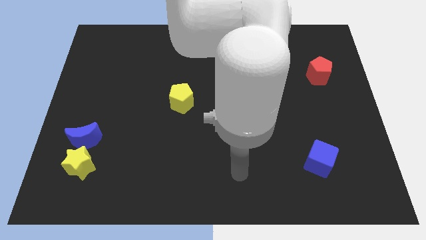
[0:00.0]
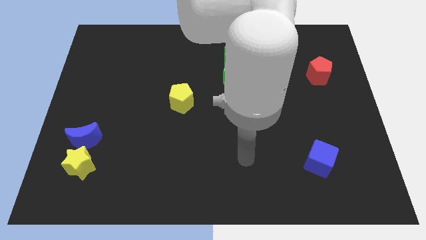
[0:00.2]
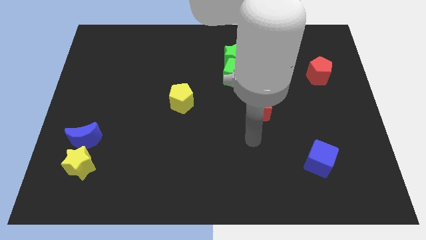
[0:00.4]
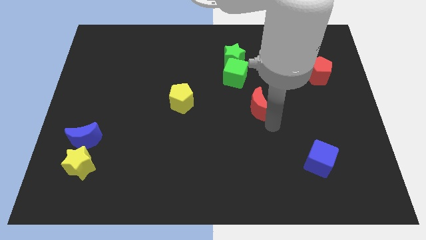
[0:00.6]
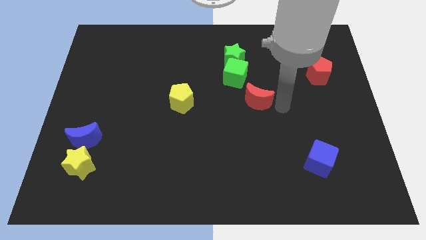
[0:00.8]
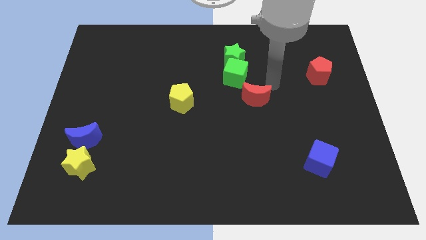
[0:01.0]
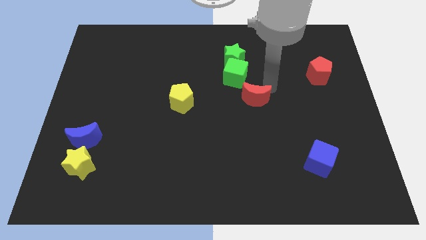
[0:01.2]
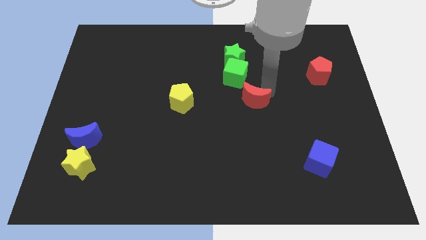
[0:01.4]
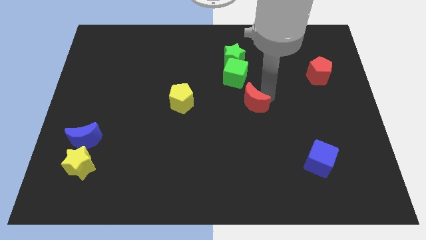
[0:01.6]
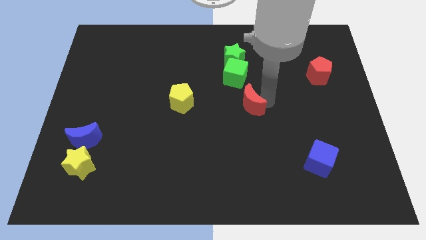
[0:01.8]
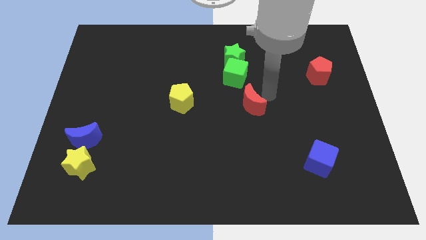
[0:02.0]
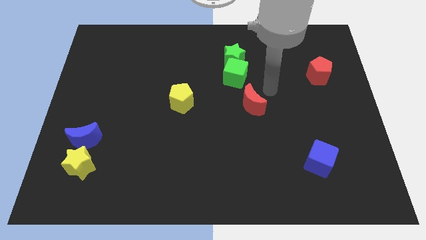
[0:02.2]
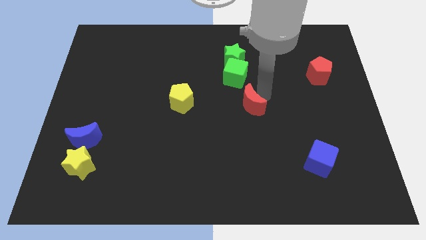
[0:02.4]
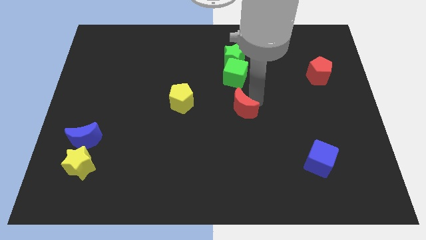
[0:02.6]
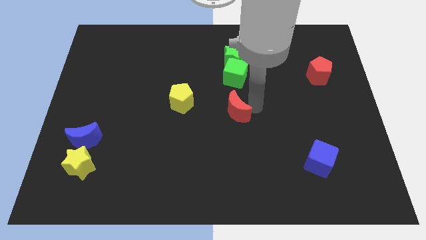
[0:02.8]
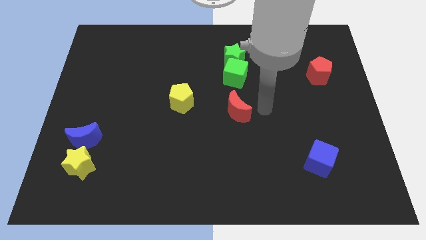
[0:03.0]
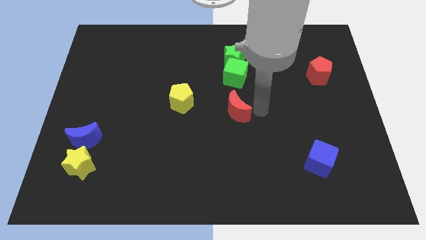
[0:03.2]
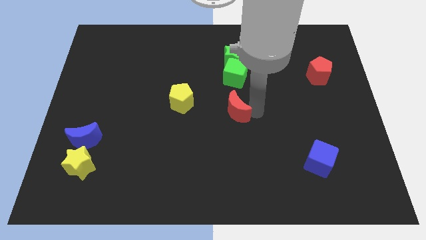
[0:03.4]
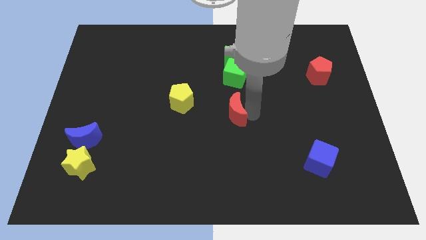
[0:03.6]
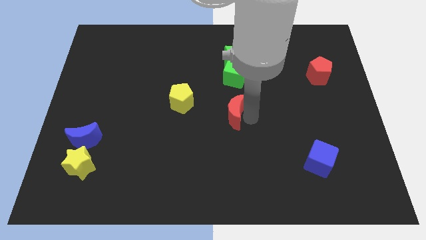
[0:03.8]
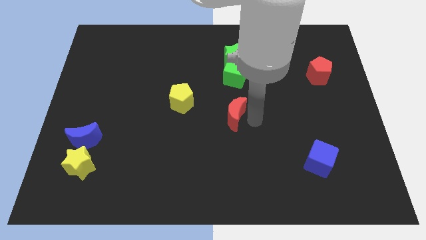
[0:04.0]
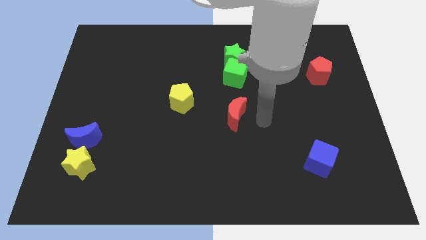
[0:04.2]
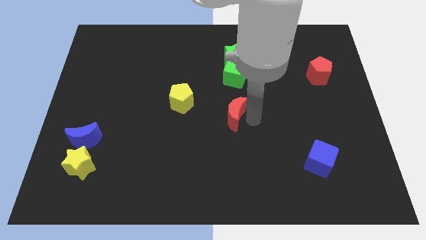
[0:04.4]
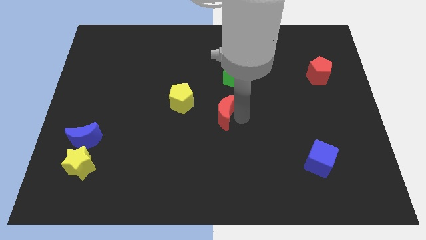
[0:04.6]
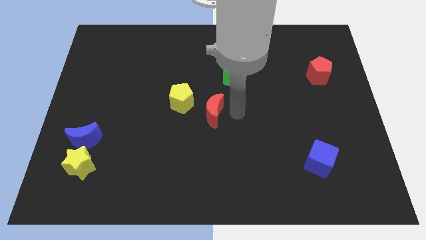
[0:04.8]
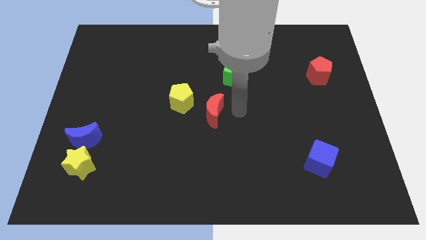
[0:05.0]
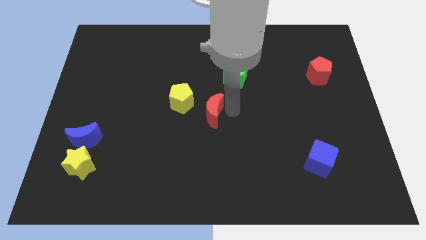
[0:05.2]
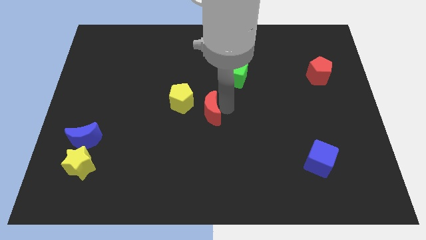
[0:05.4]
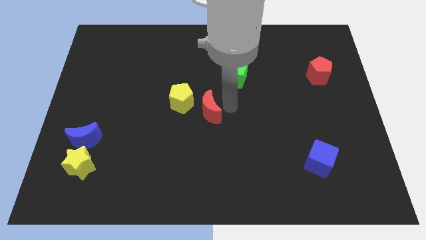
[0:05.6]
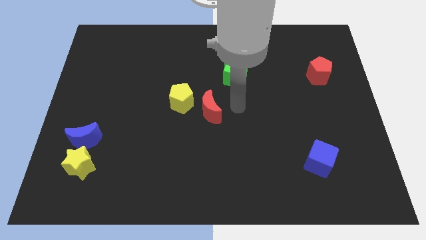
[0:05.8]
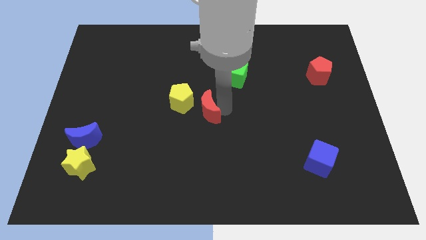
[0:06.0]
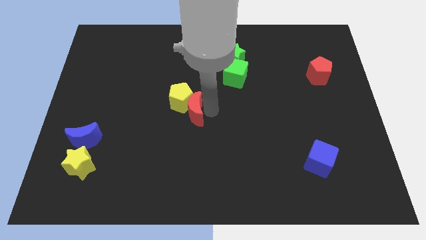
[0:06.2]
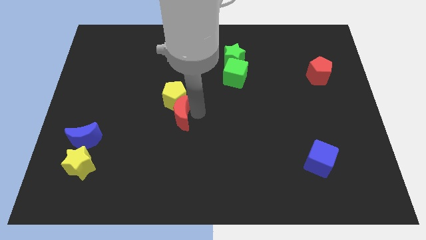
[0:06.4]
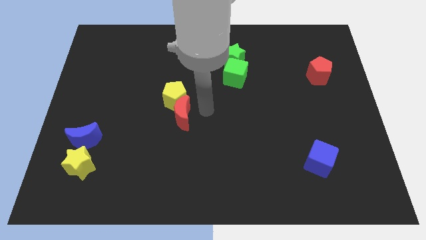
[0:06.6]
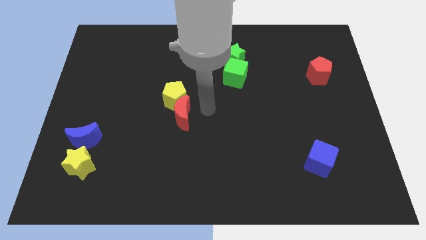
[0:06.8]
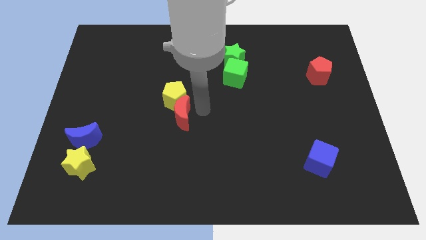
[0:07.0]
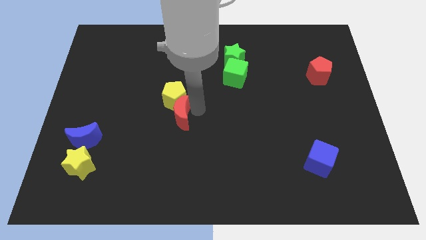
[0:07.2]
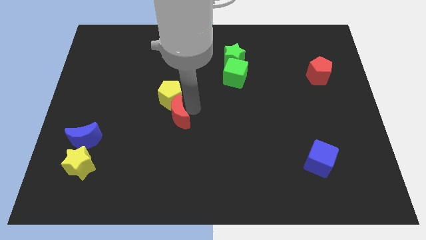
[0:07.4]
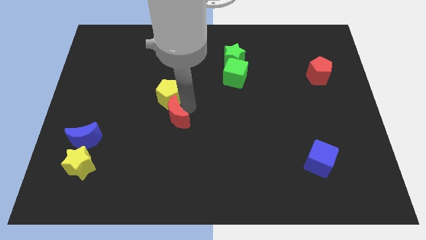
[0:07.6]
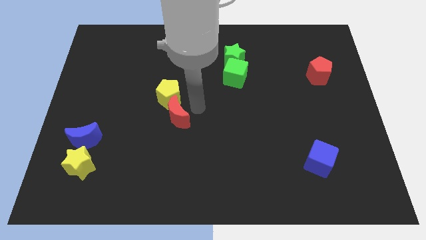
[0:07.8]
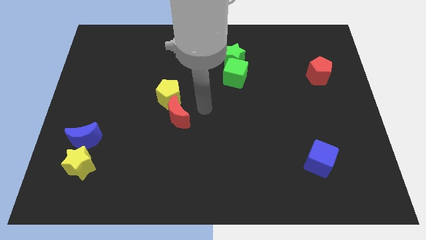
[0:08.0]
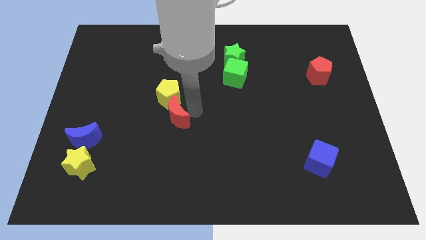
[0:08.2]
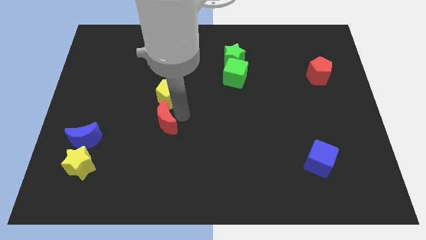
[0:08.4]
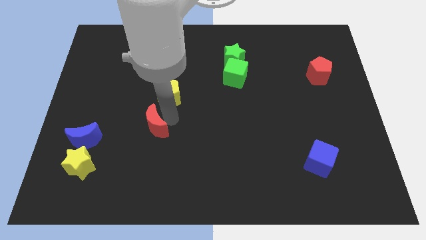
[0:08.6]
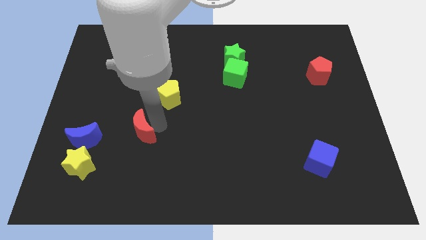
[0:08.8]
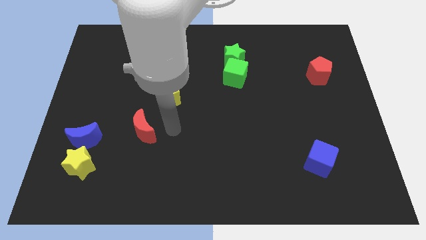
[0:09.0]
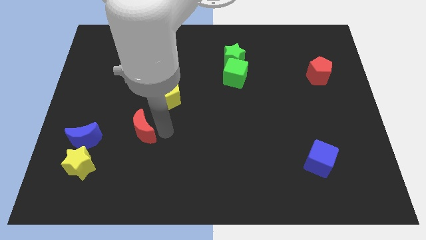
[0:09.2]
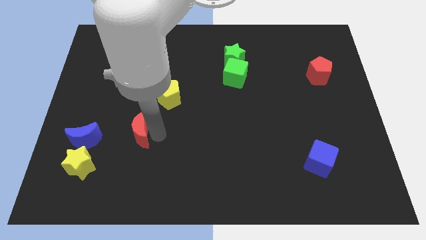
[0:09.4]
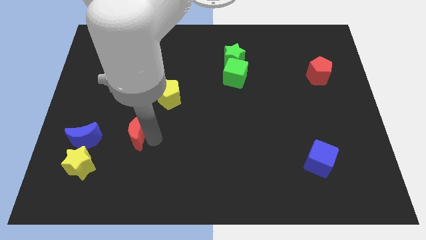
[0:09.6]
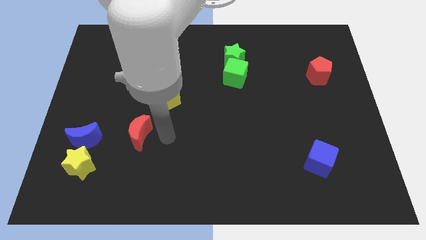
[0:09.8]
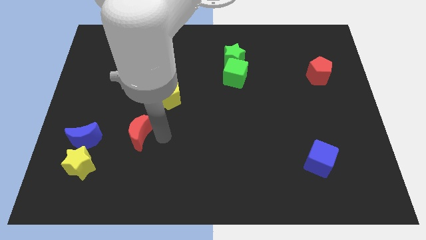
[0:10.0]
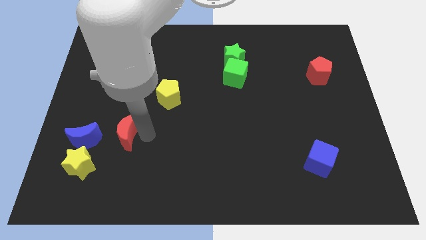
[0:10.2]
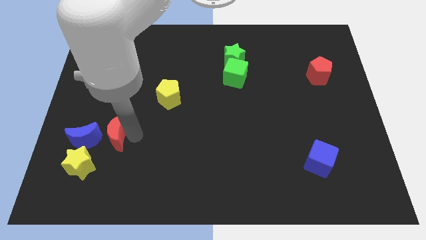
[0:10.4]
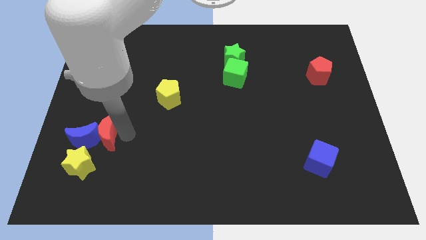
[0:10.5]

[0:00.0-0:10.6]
move the red moon to the blue moon

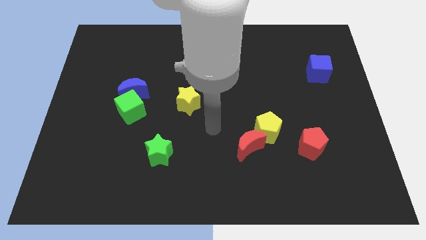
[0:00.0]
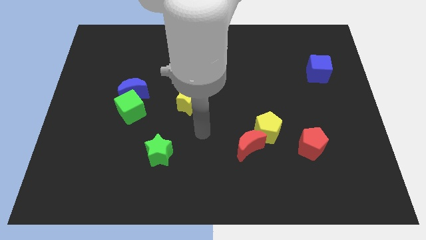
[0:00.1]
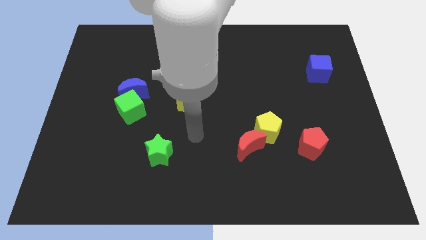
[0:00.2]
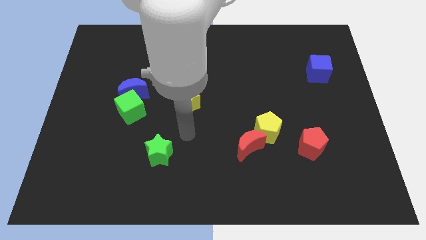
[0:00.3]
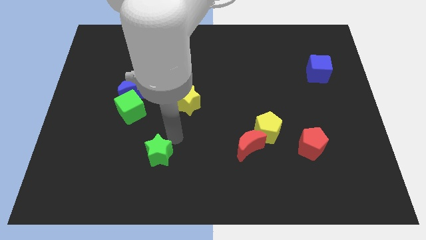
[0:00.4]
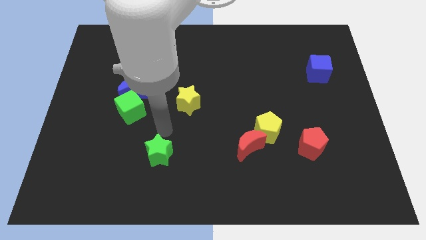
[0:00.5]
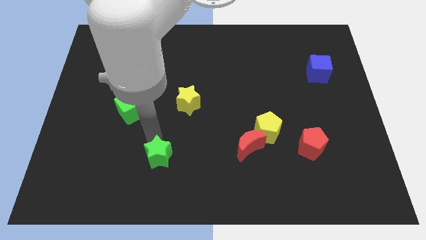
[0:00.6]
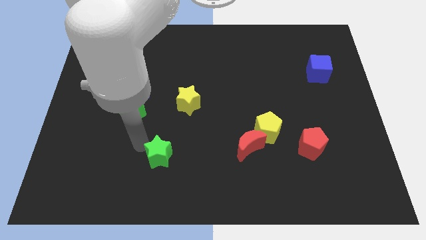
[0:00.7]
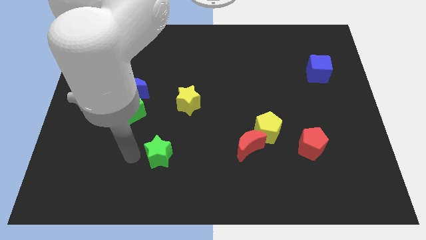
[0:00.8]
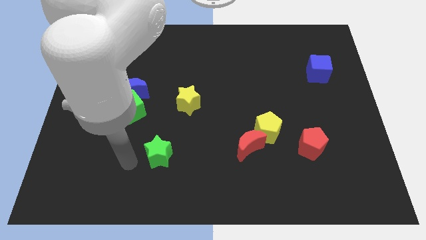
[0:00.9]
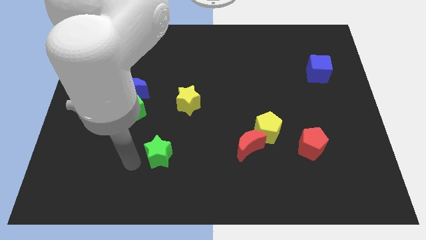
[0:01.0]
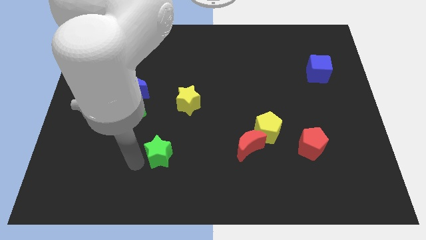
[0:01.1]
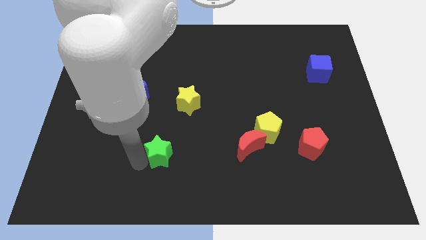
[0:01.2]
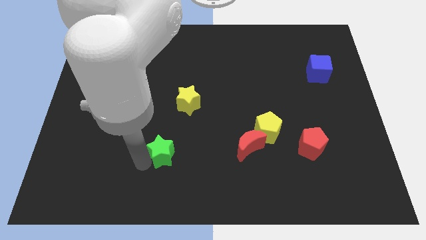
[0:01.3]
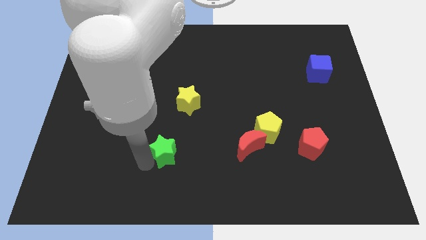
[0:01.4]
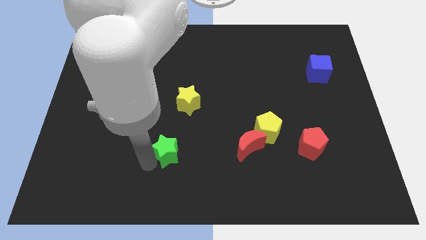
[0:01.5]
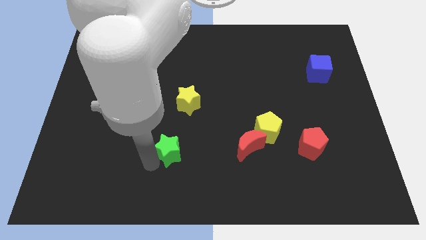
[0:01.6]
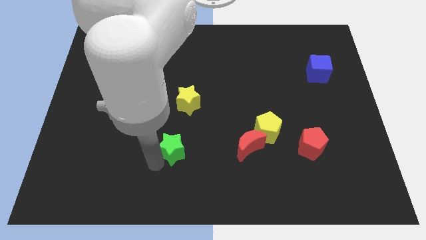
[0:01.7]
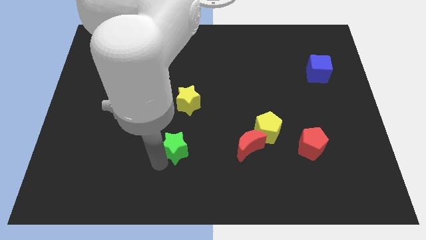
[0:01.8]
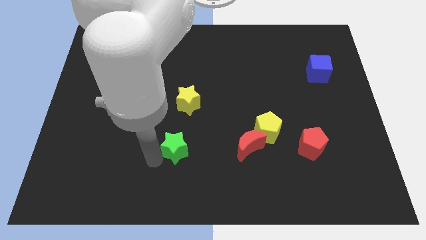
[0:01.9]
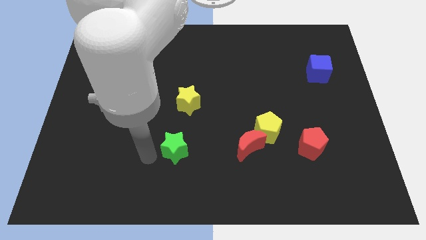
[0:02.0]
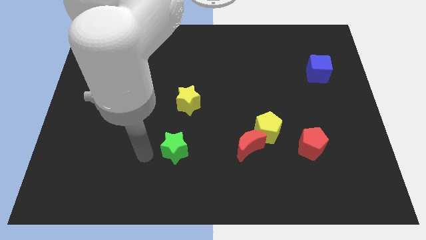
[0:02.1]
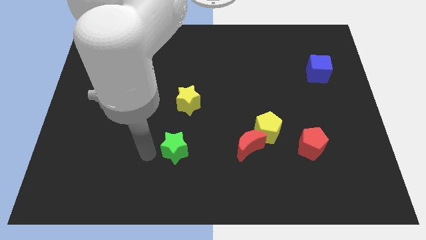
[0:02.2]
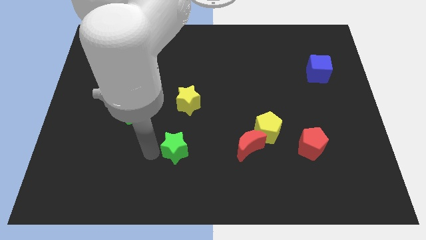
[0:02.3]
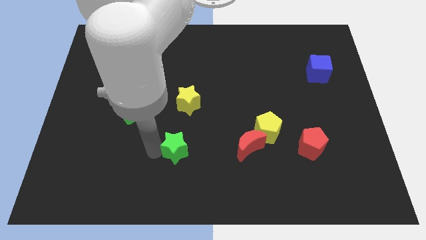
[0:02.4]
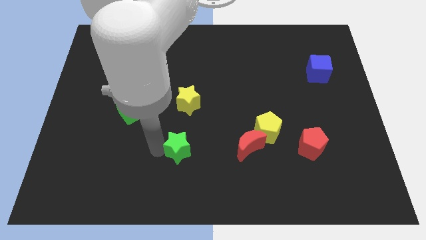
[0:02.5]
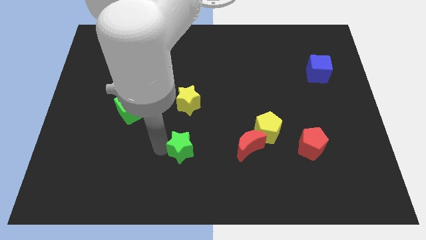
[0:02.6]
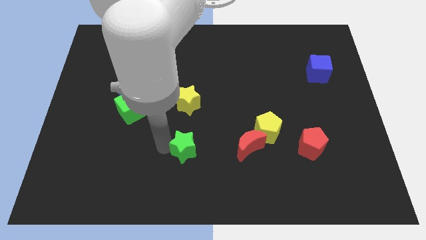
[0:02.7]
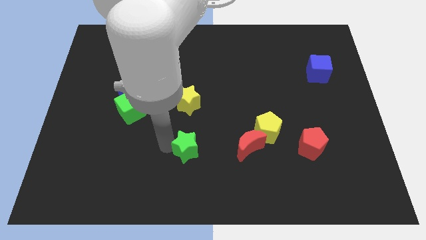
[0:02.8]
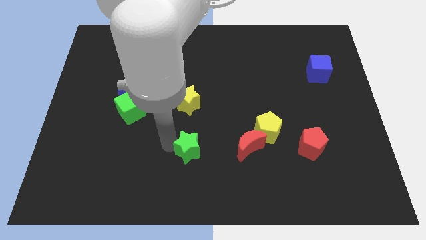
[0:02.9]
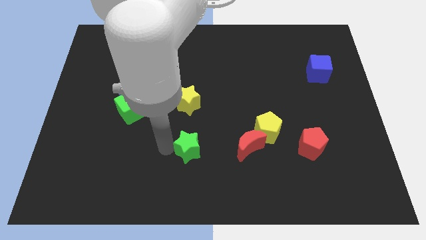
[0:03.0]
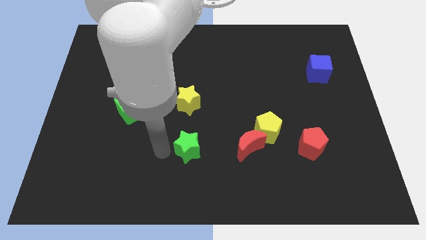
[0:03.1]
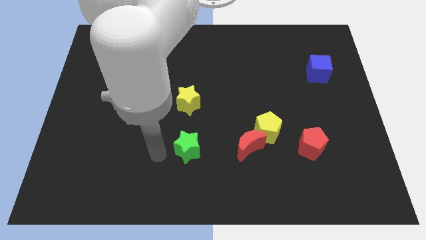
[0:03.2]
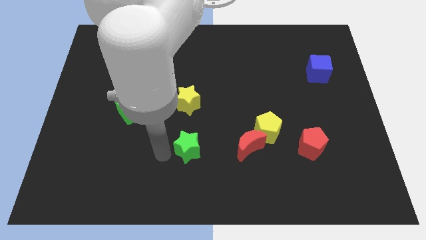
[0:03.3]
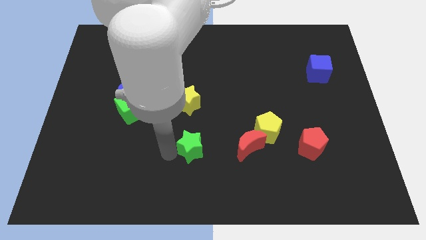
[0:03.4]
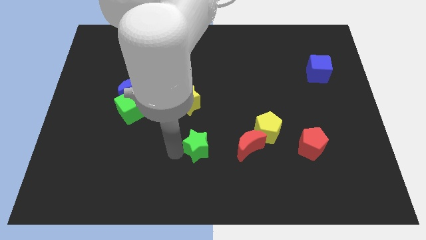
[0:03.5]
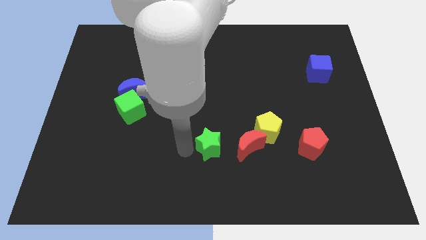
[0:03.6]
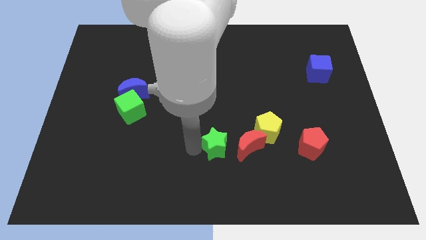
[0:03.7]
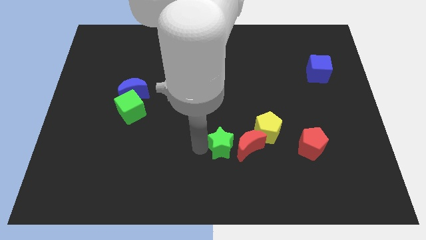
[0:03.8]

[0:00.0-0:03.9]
put the green star close to the red moon
